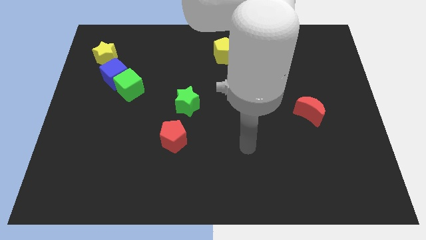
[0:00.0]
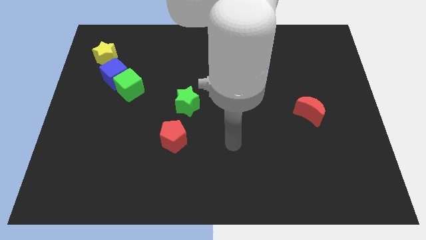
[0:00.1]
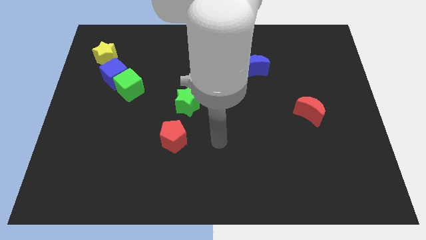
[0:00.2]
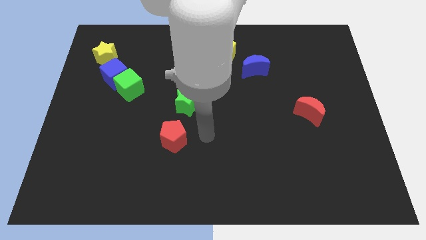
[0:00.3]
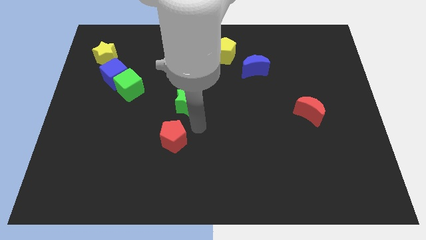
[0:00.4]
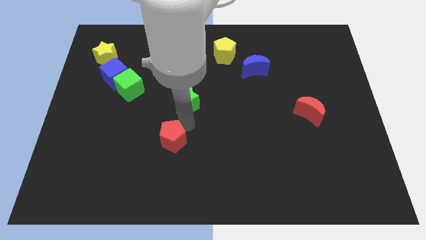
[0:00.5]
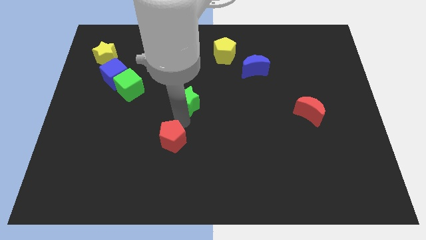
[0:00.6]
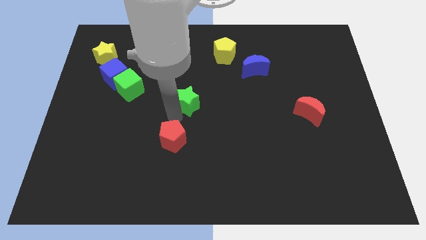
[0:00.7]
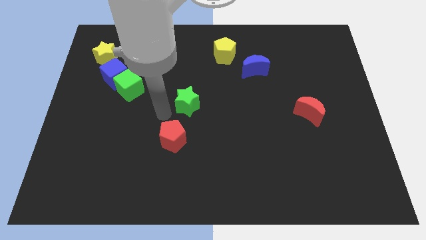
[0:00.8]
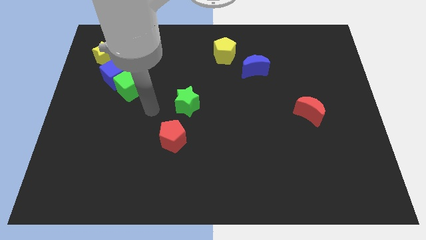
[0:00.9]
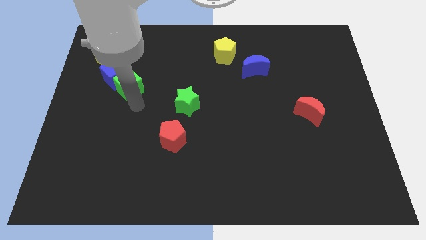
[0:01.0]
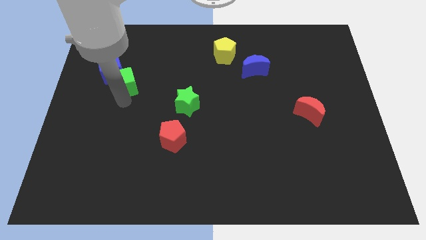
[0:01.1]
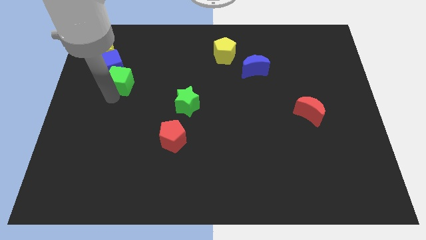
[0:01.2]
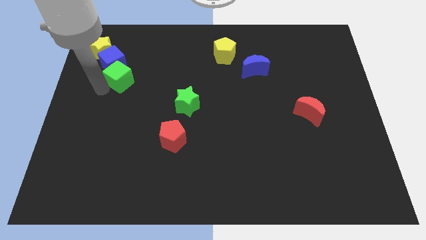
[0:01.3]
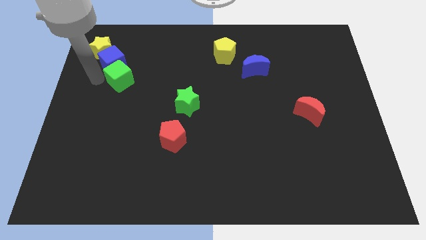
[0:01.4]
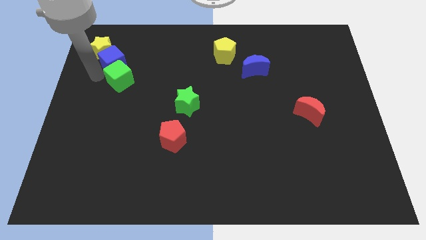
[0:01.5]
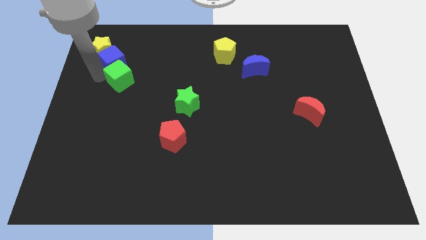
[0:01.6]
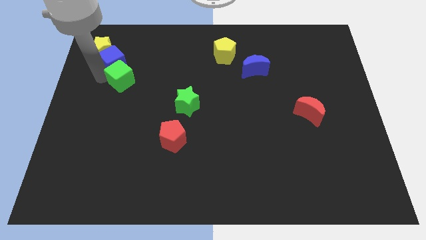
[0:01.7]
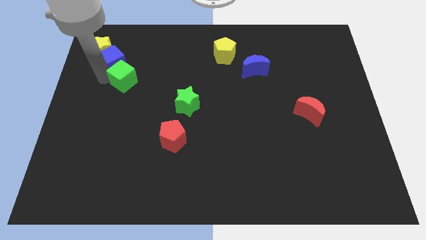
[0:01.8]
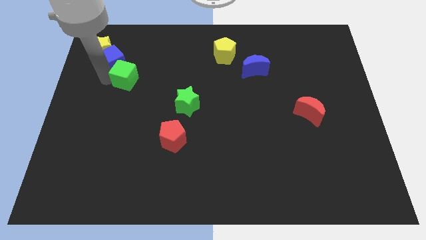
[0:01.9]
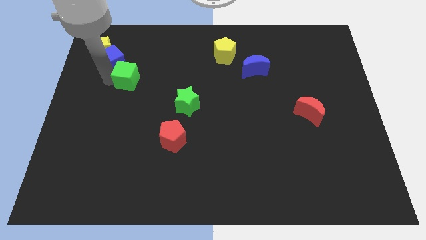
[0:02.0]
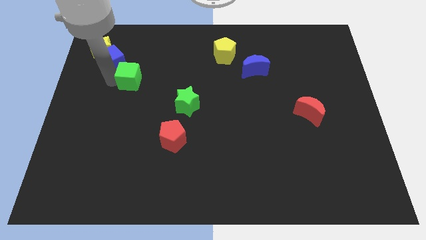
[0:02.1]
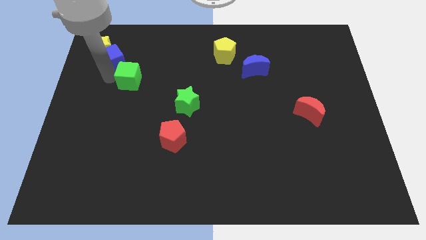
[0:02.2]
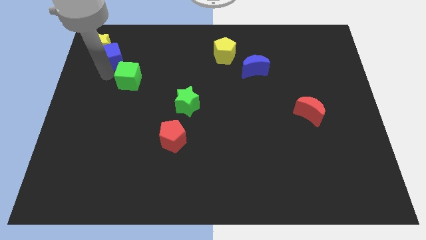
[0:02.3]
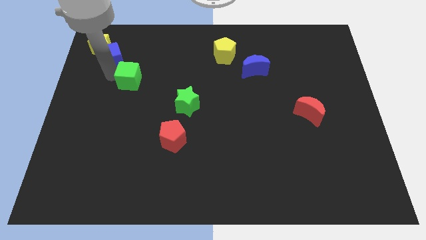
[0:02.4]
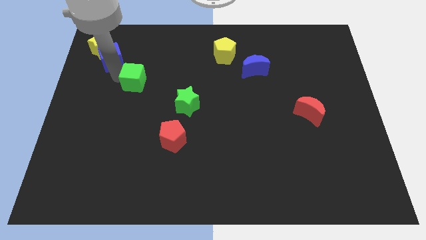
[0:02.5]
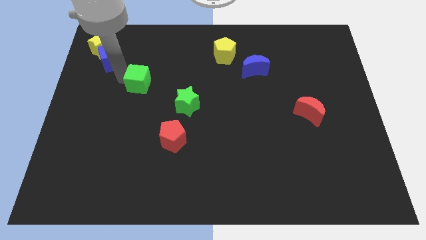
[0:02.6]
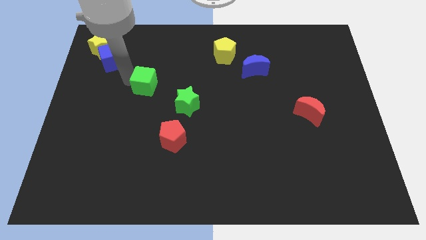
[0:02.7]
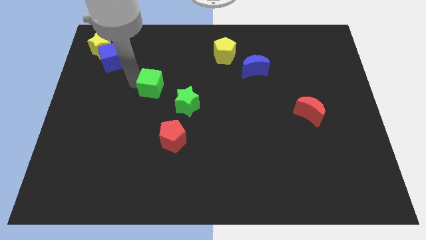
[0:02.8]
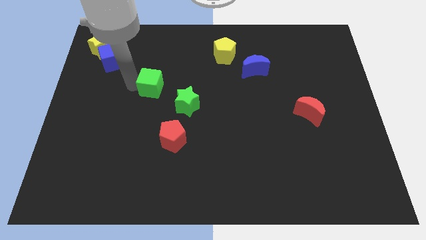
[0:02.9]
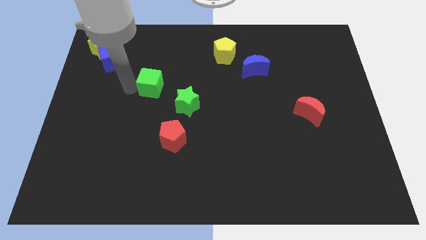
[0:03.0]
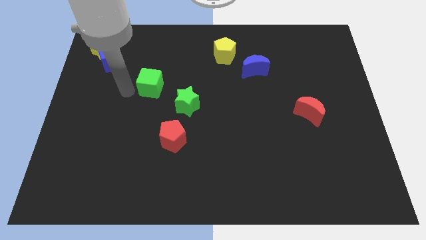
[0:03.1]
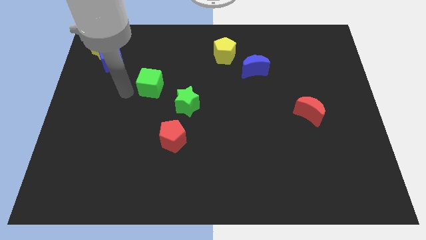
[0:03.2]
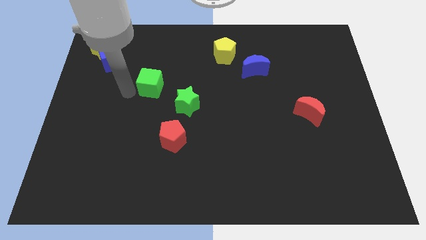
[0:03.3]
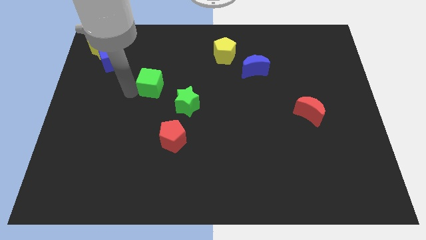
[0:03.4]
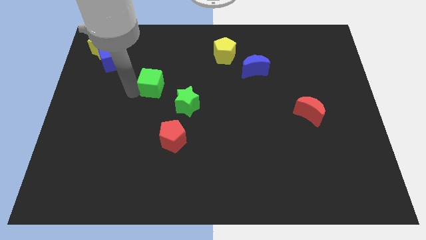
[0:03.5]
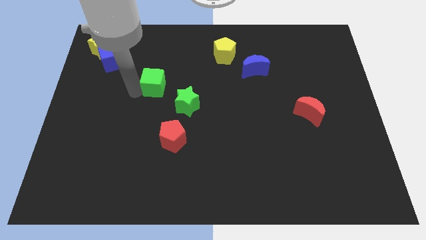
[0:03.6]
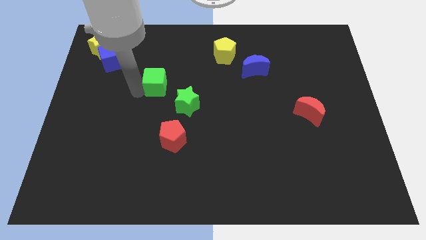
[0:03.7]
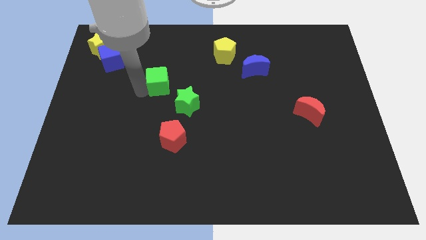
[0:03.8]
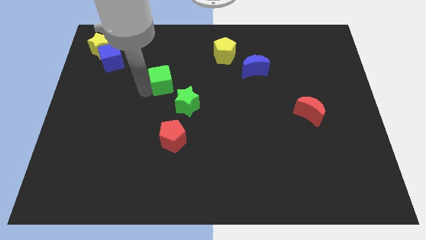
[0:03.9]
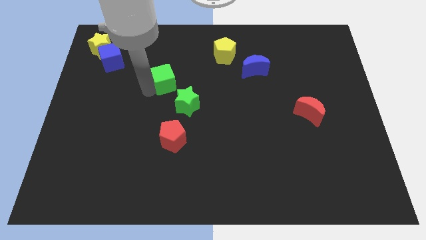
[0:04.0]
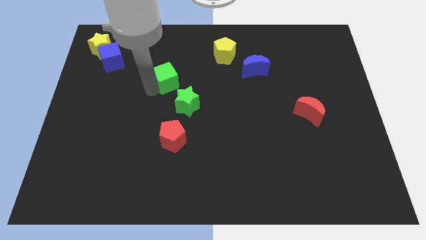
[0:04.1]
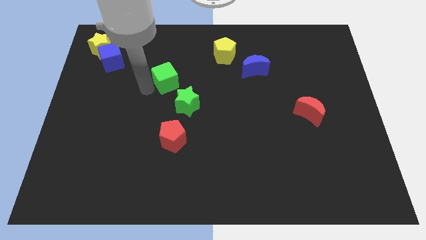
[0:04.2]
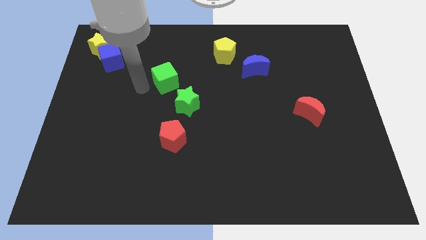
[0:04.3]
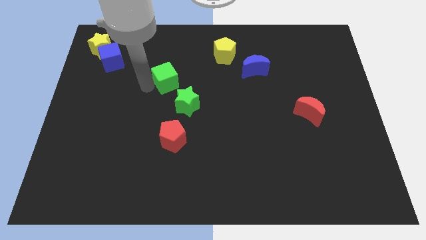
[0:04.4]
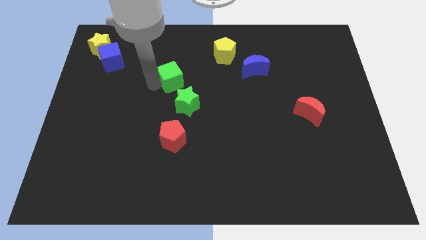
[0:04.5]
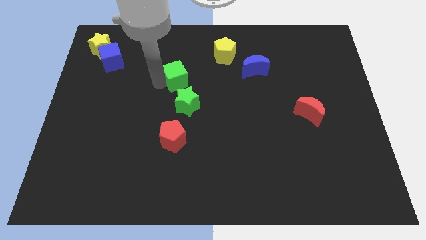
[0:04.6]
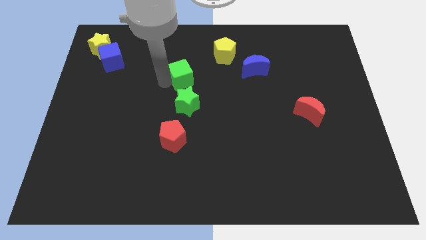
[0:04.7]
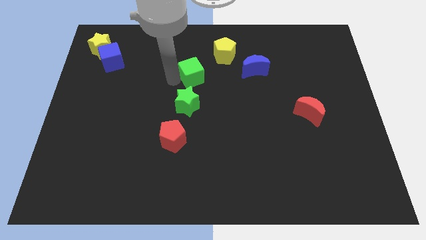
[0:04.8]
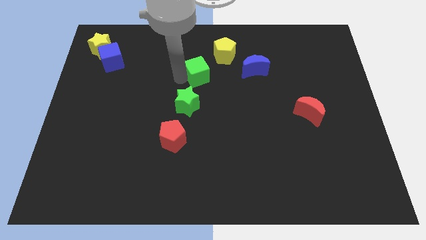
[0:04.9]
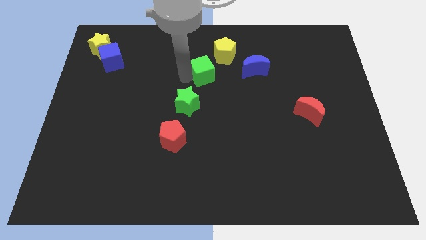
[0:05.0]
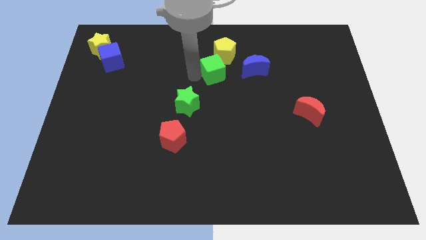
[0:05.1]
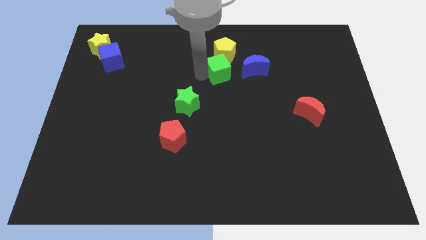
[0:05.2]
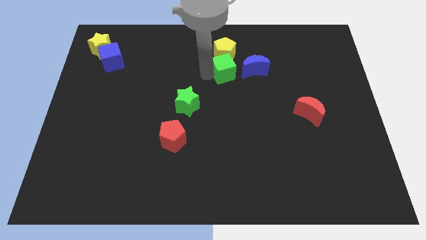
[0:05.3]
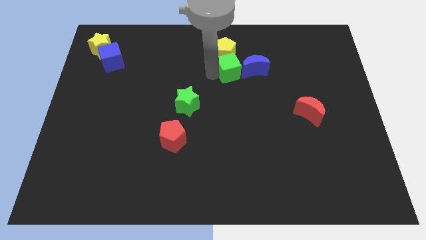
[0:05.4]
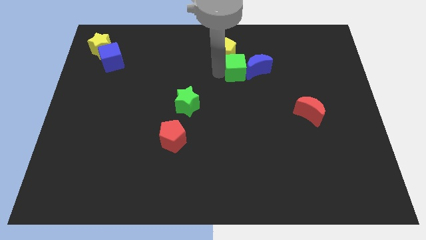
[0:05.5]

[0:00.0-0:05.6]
slide the green cube to the blue moon

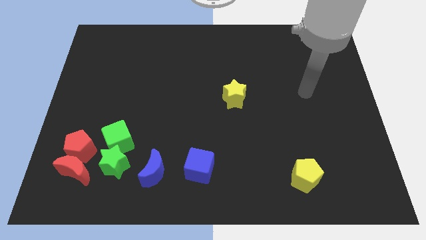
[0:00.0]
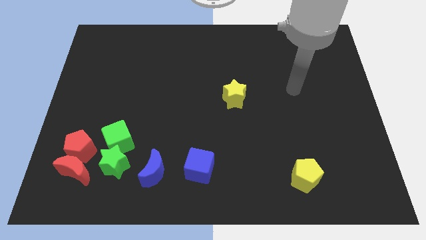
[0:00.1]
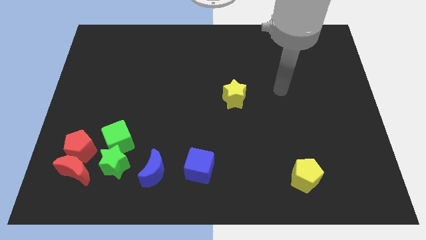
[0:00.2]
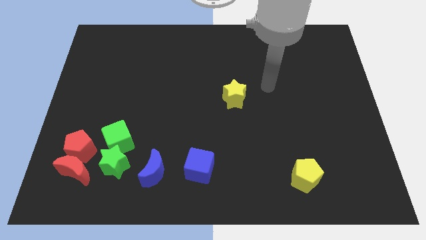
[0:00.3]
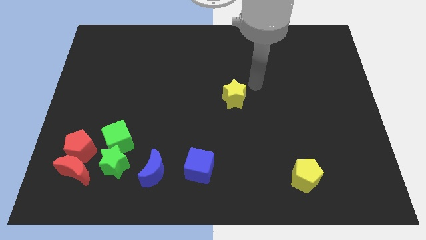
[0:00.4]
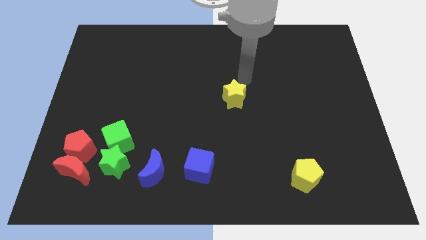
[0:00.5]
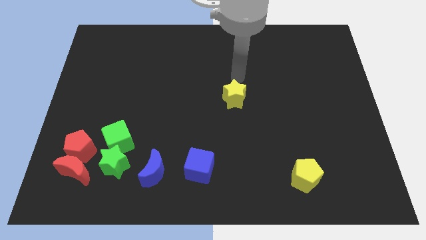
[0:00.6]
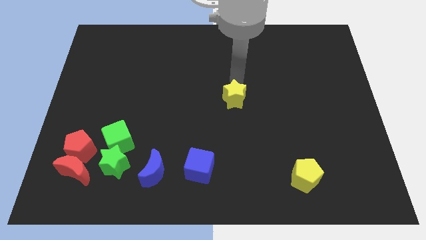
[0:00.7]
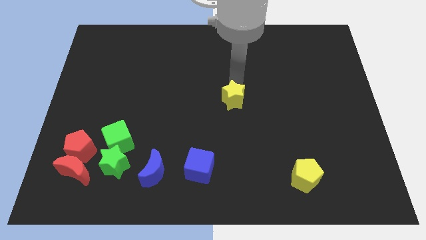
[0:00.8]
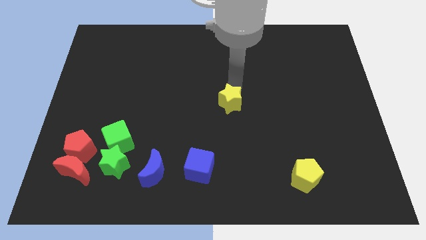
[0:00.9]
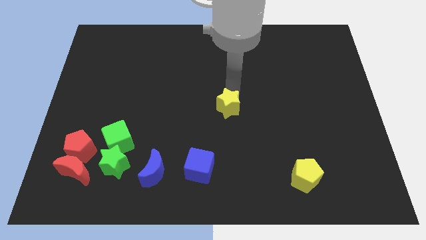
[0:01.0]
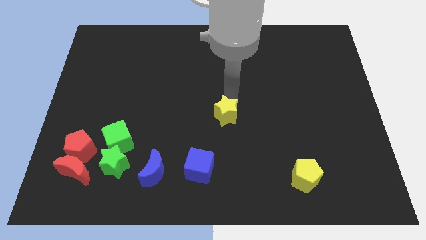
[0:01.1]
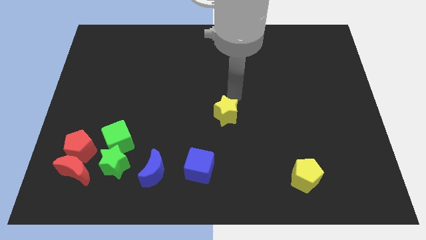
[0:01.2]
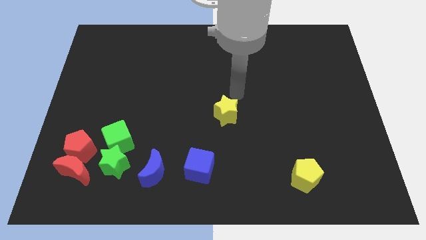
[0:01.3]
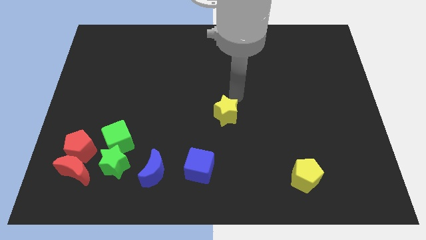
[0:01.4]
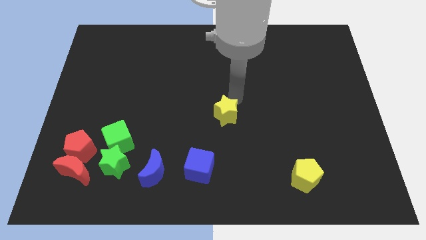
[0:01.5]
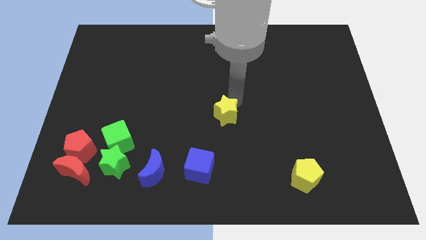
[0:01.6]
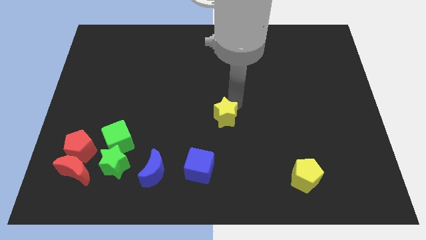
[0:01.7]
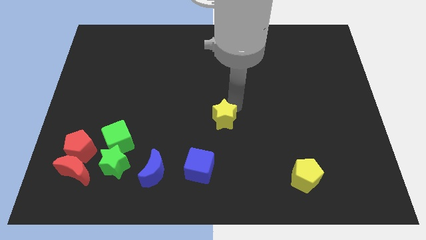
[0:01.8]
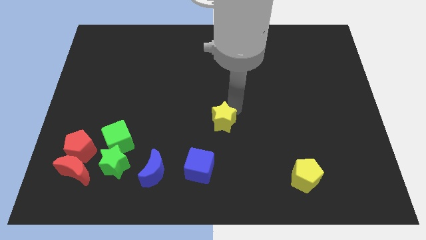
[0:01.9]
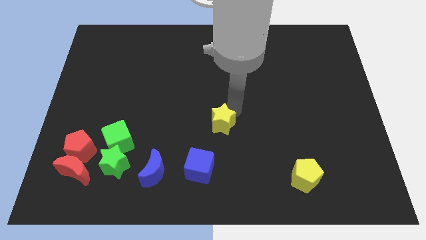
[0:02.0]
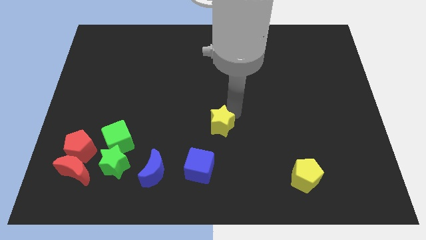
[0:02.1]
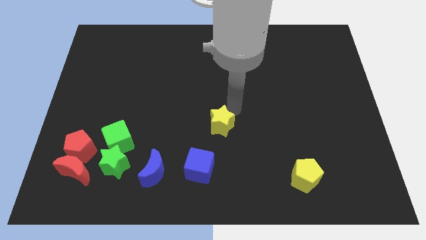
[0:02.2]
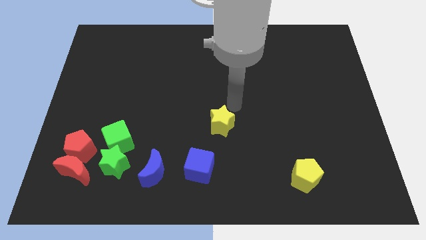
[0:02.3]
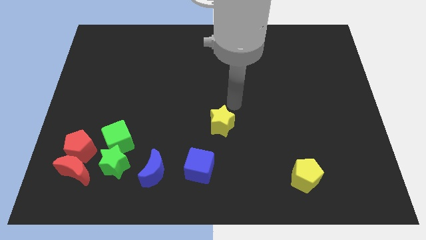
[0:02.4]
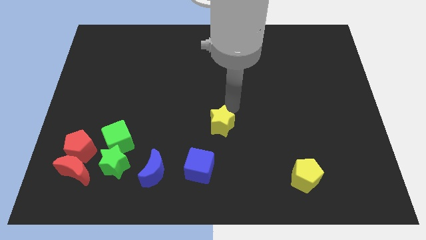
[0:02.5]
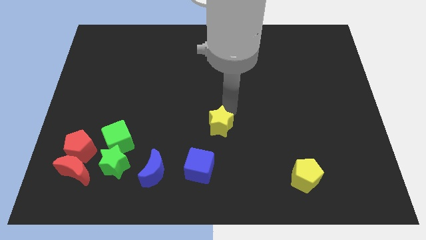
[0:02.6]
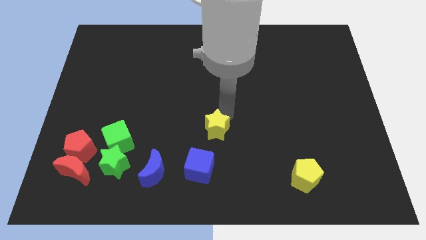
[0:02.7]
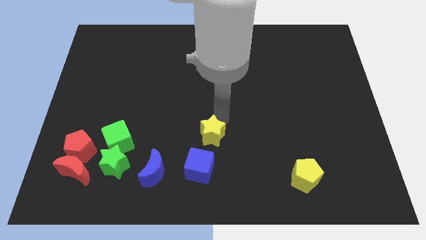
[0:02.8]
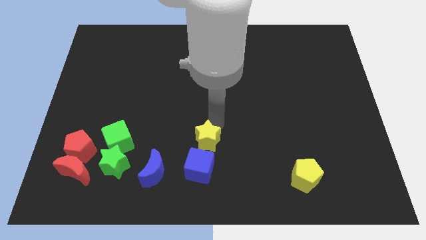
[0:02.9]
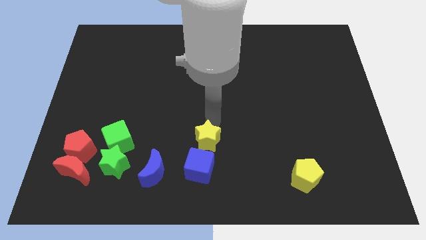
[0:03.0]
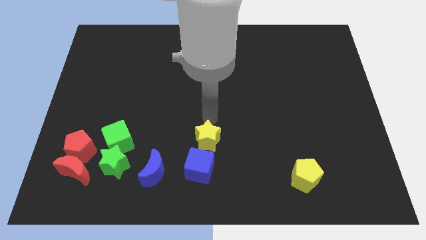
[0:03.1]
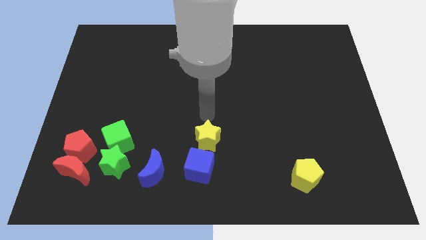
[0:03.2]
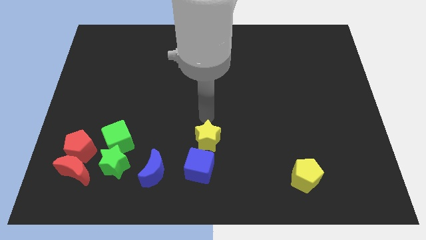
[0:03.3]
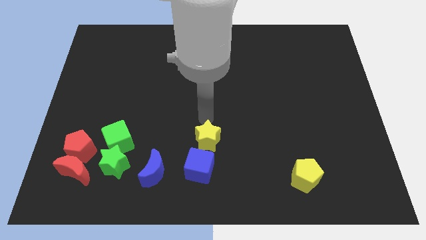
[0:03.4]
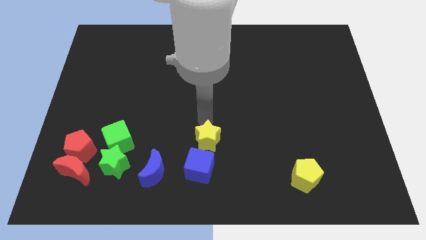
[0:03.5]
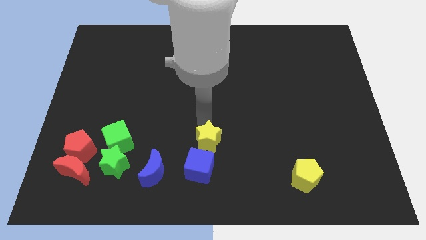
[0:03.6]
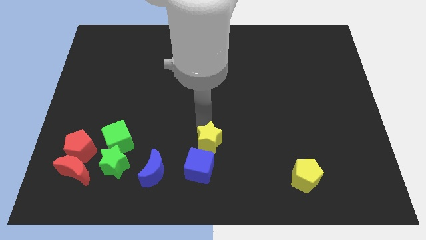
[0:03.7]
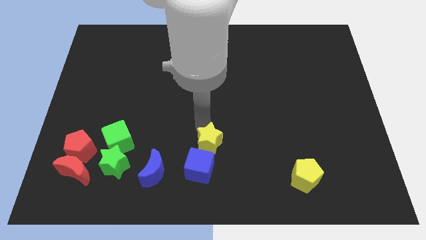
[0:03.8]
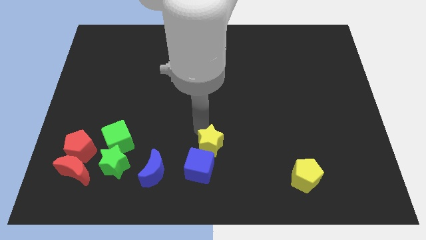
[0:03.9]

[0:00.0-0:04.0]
move the yellow star towards the blue cube
